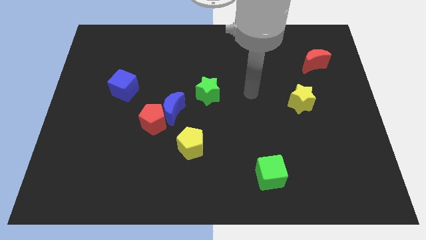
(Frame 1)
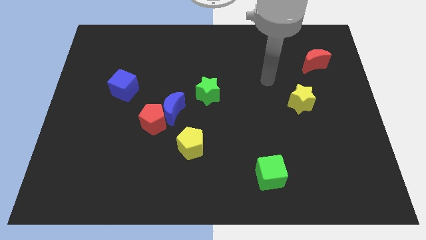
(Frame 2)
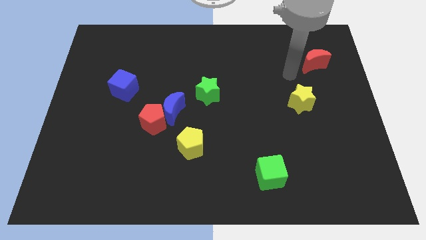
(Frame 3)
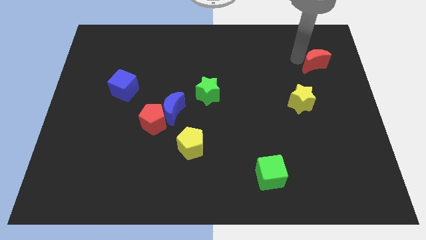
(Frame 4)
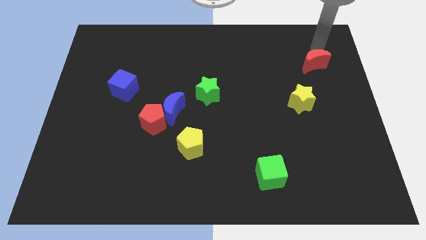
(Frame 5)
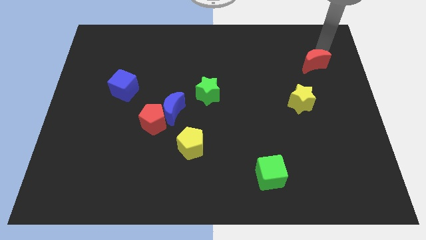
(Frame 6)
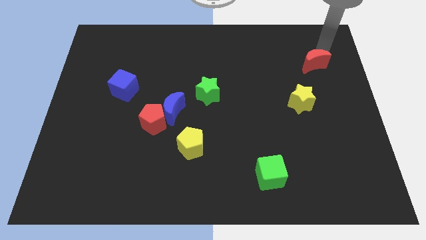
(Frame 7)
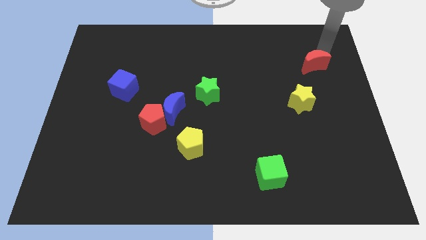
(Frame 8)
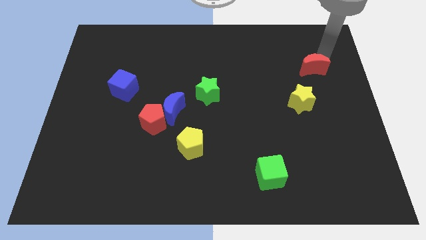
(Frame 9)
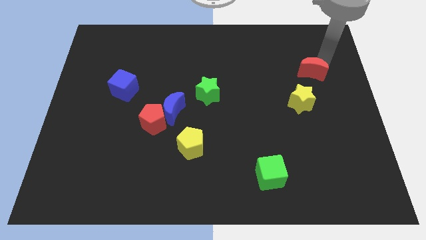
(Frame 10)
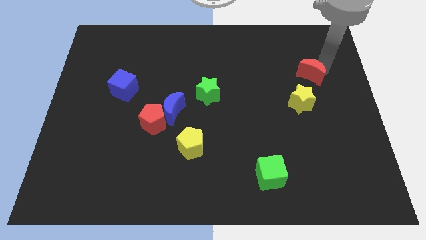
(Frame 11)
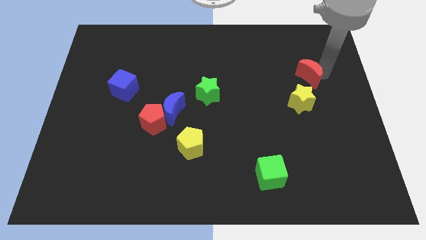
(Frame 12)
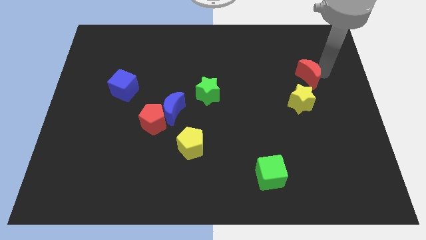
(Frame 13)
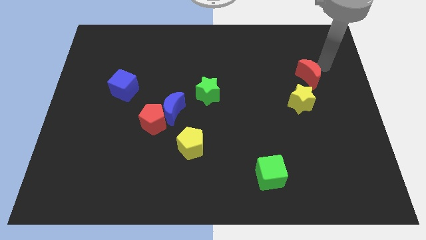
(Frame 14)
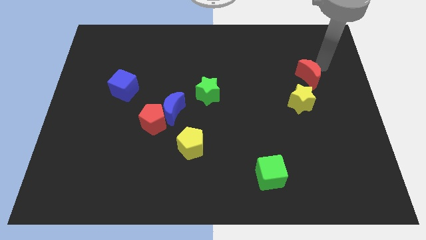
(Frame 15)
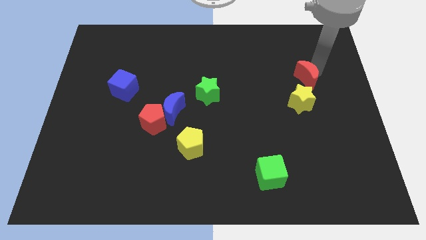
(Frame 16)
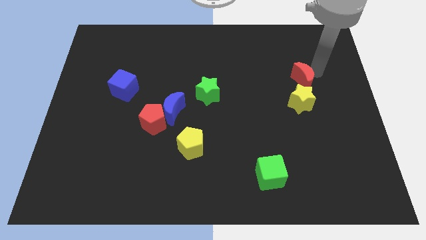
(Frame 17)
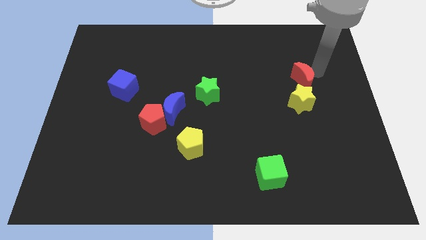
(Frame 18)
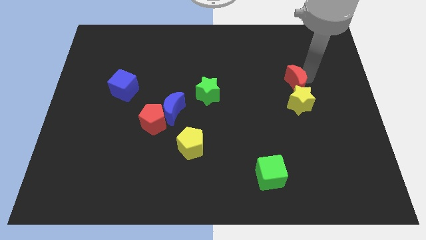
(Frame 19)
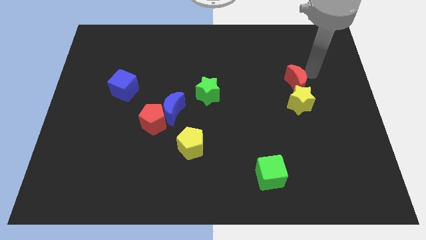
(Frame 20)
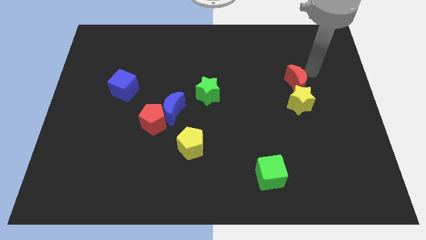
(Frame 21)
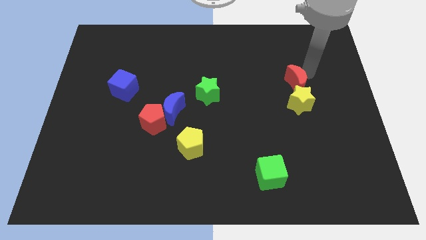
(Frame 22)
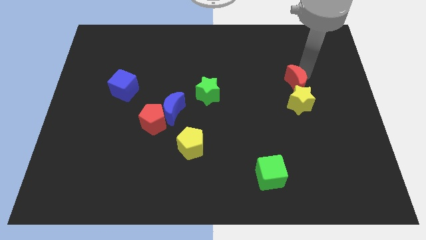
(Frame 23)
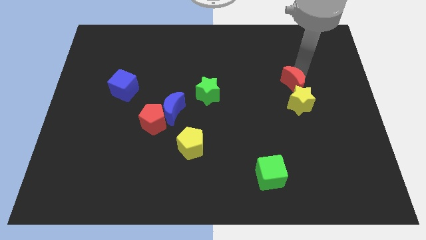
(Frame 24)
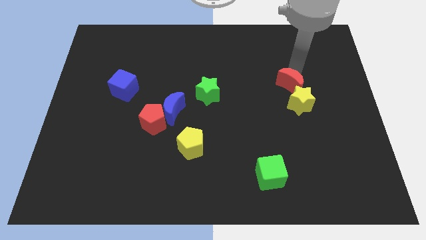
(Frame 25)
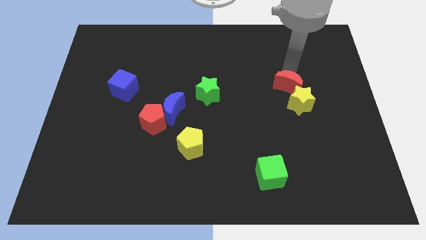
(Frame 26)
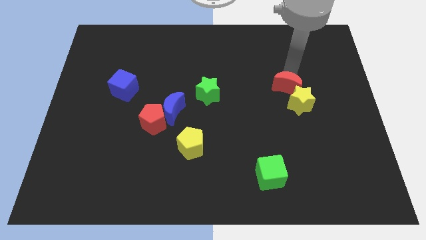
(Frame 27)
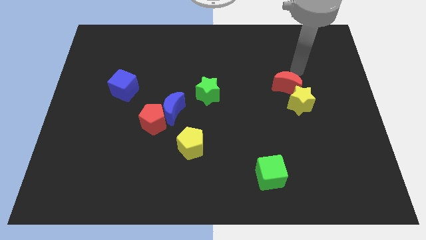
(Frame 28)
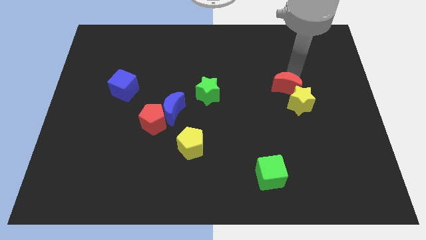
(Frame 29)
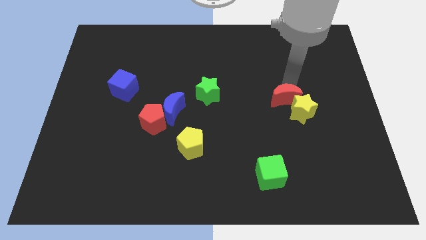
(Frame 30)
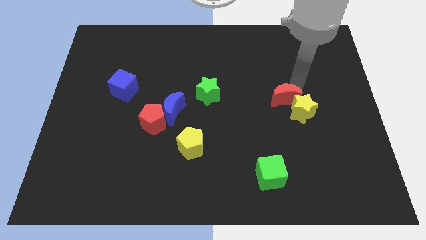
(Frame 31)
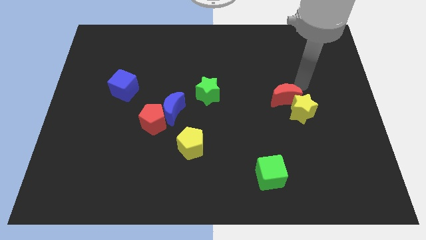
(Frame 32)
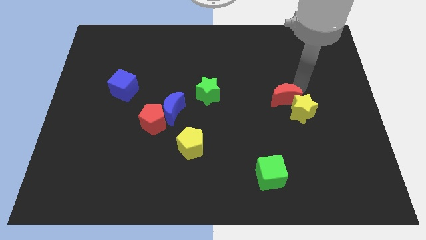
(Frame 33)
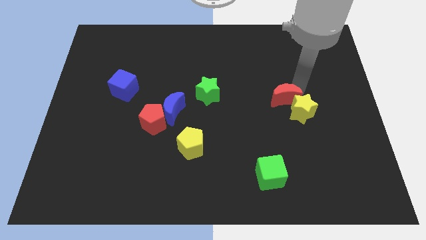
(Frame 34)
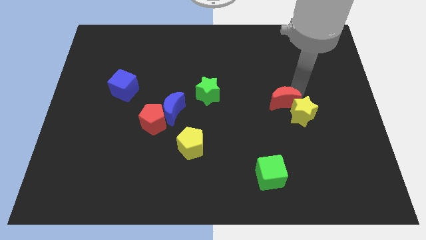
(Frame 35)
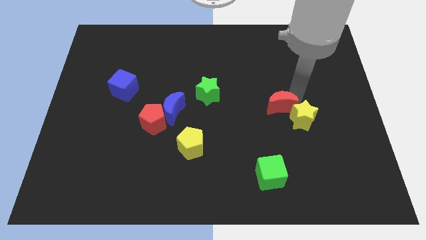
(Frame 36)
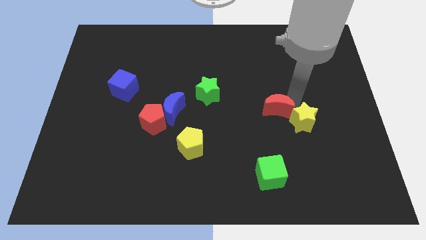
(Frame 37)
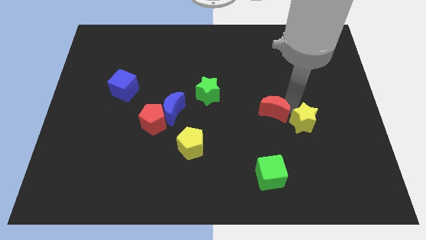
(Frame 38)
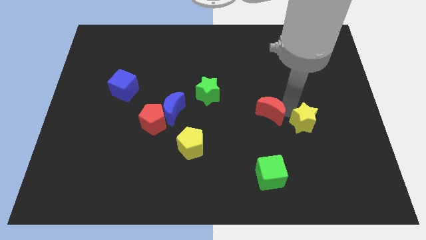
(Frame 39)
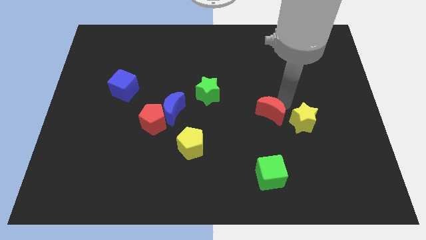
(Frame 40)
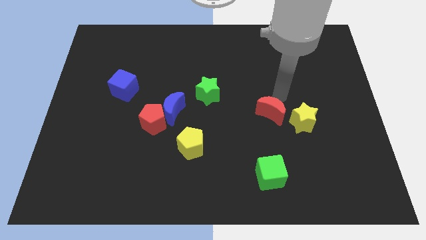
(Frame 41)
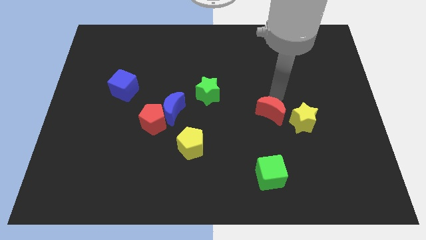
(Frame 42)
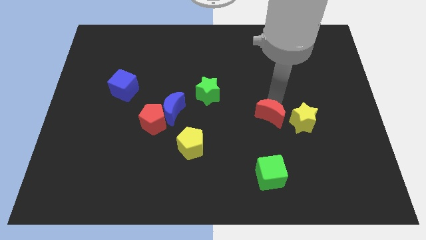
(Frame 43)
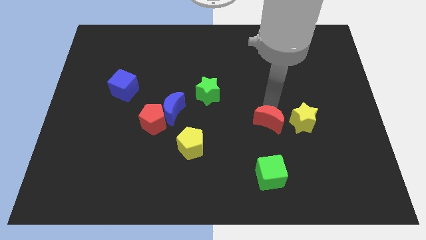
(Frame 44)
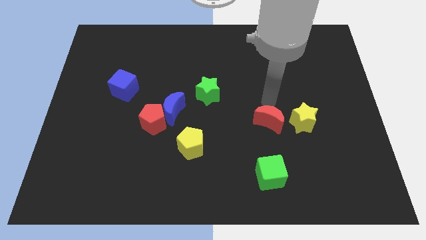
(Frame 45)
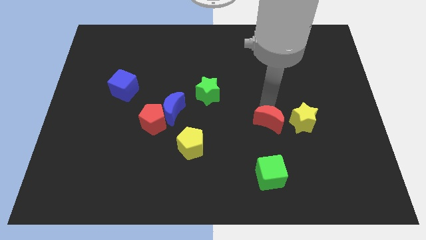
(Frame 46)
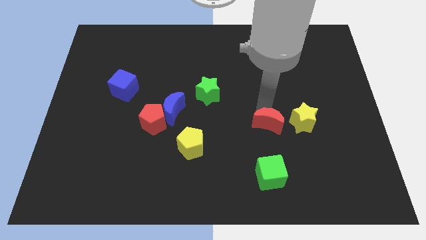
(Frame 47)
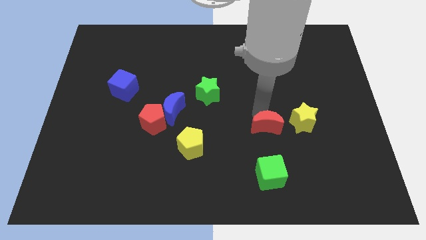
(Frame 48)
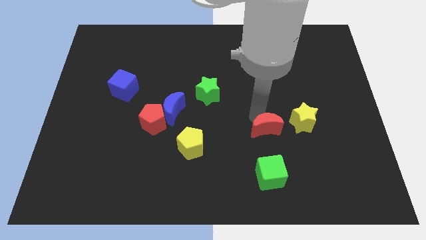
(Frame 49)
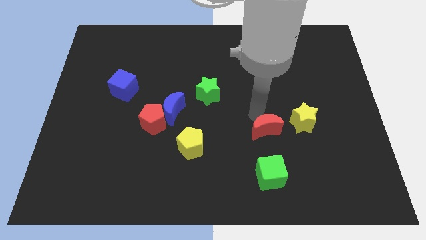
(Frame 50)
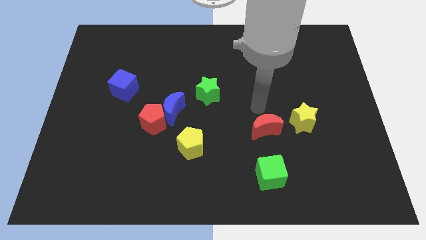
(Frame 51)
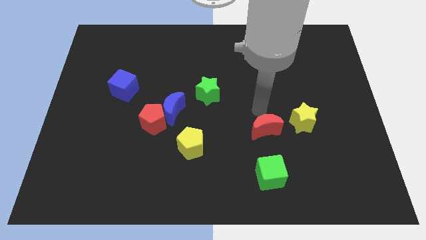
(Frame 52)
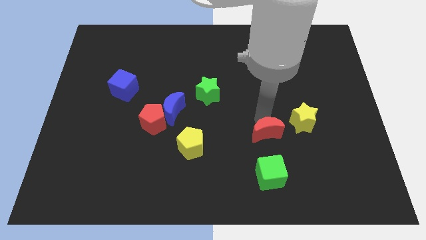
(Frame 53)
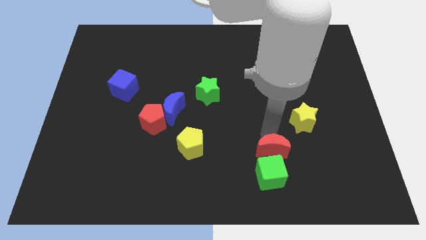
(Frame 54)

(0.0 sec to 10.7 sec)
put the red moon to the green cube

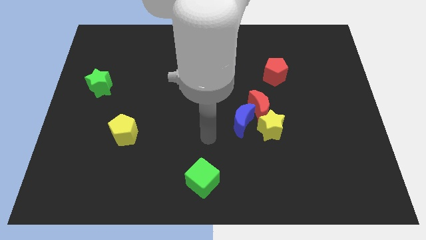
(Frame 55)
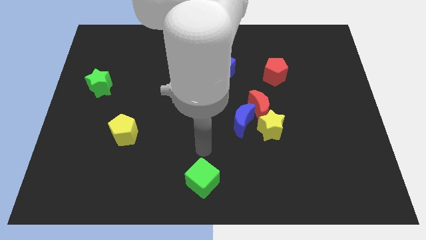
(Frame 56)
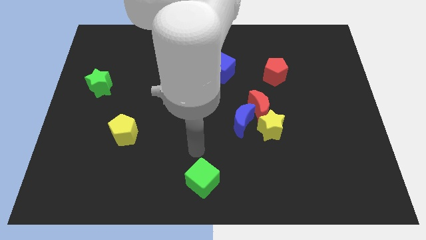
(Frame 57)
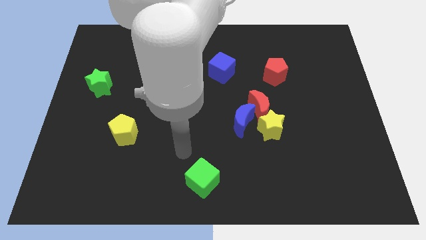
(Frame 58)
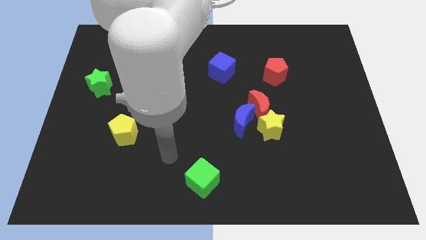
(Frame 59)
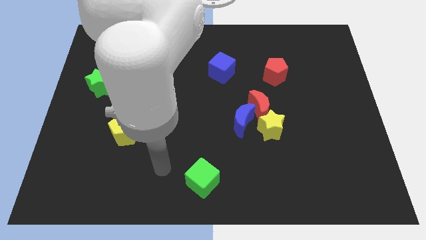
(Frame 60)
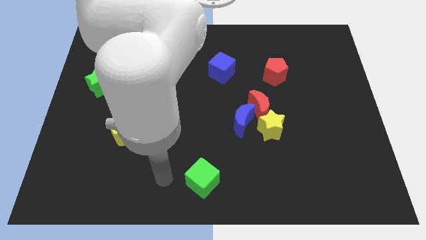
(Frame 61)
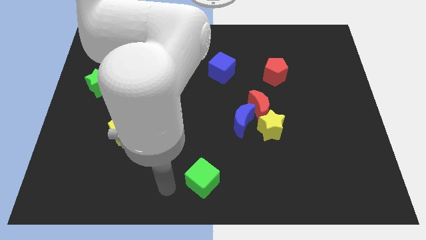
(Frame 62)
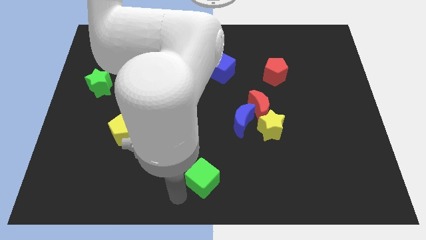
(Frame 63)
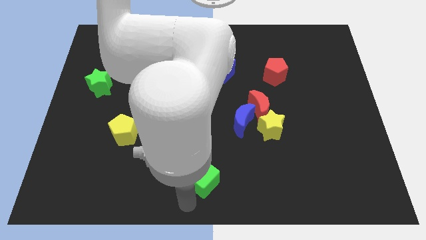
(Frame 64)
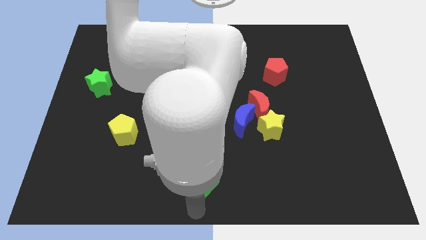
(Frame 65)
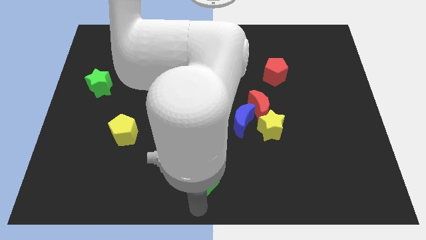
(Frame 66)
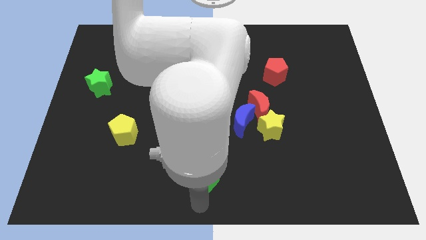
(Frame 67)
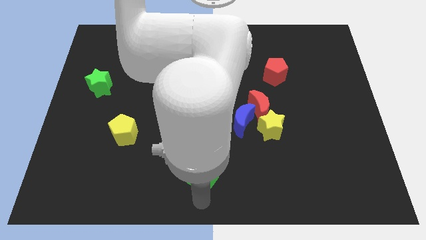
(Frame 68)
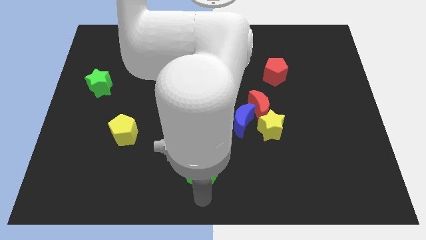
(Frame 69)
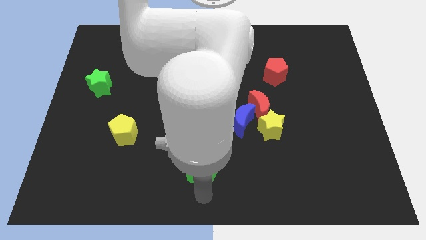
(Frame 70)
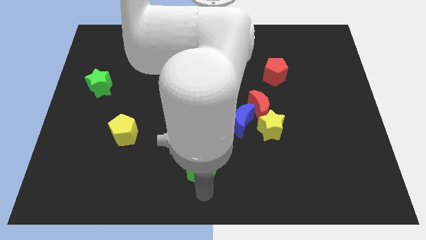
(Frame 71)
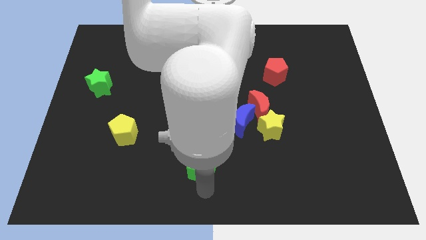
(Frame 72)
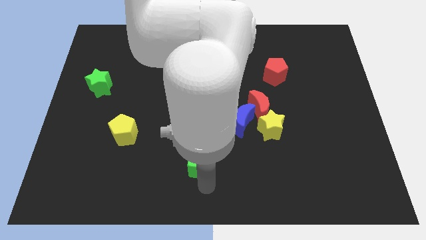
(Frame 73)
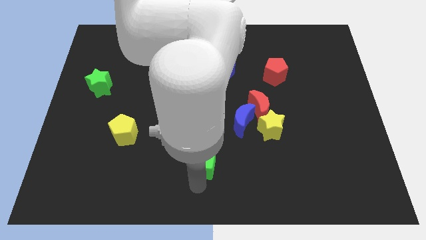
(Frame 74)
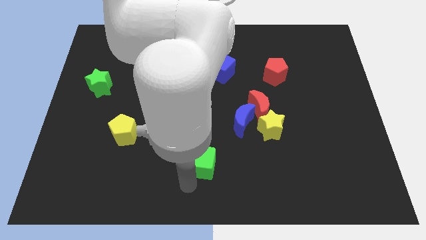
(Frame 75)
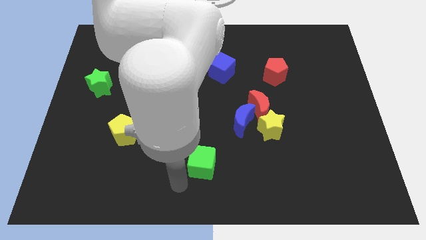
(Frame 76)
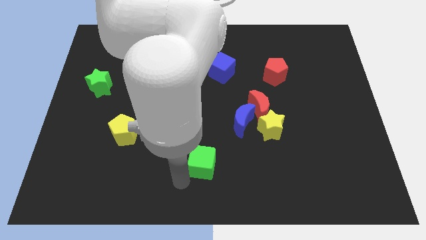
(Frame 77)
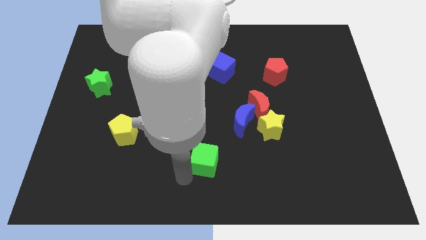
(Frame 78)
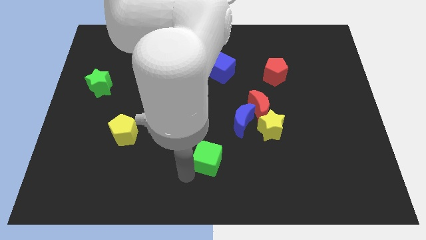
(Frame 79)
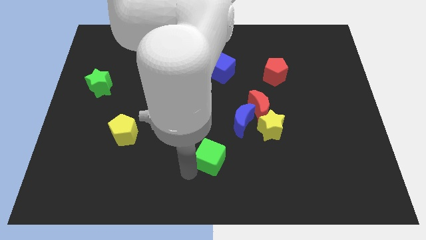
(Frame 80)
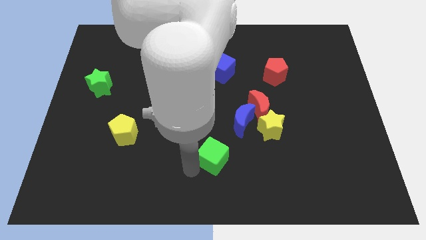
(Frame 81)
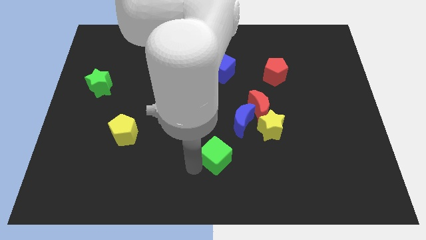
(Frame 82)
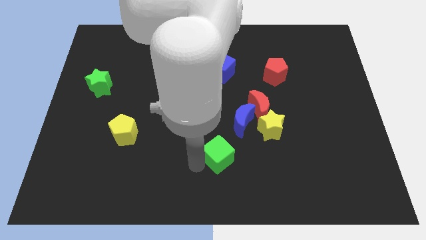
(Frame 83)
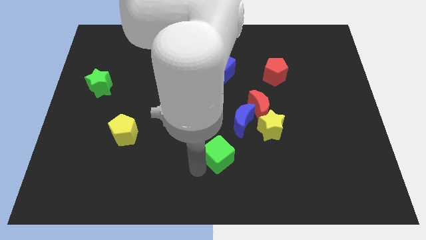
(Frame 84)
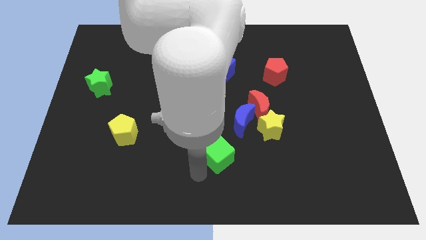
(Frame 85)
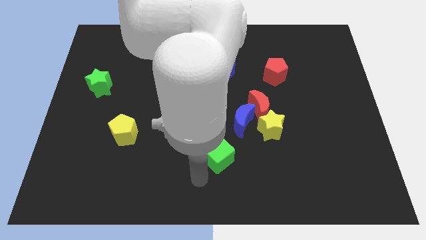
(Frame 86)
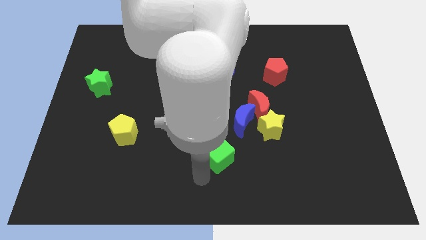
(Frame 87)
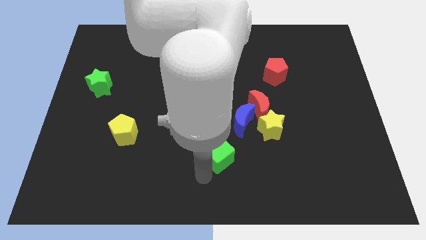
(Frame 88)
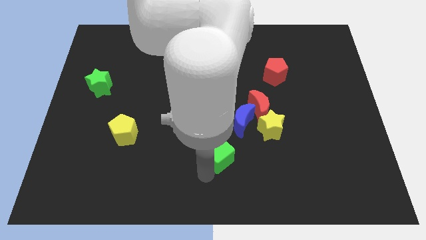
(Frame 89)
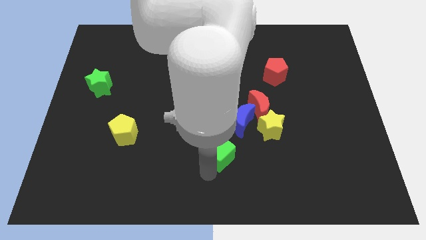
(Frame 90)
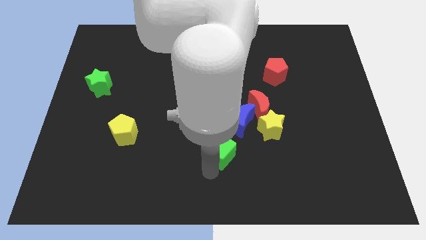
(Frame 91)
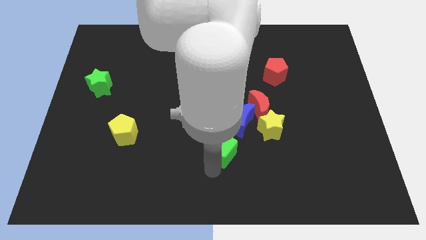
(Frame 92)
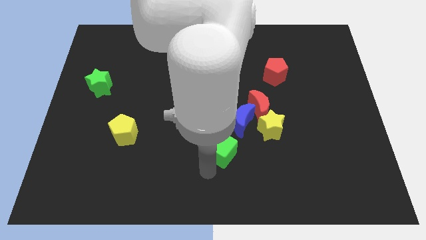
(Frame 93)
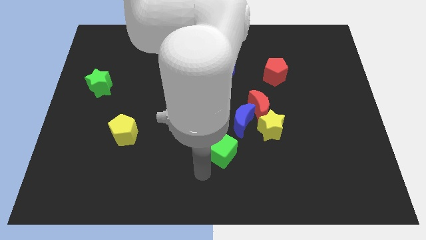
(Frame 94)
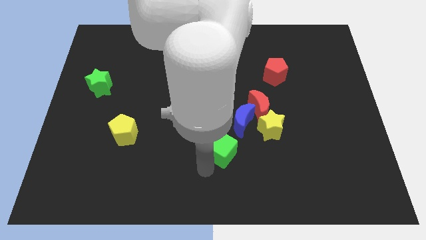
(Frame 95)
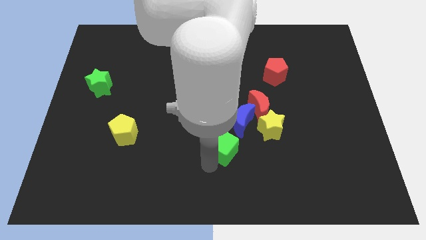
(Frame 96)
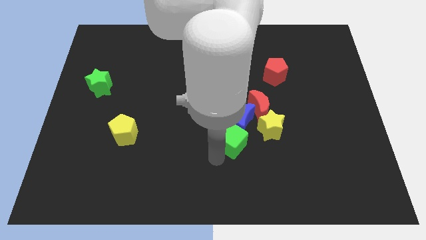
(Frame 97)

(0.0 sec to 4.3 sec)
push the green cube towards the blue moon
